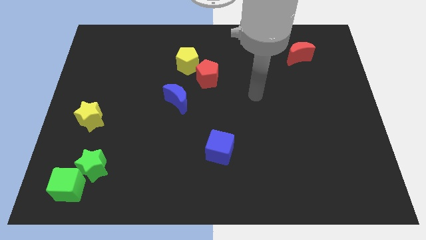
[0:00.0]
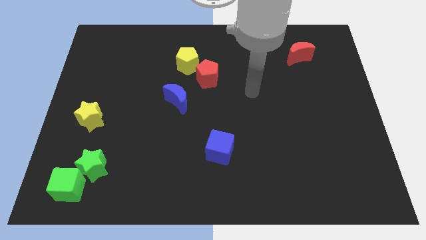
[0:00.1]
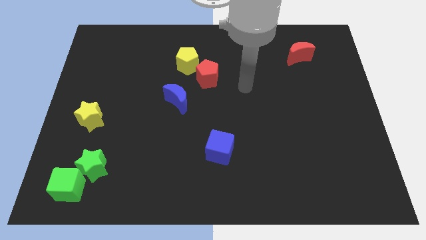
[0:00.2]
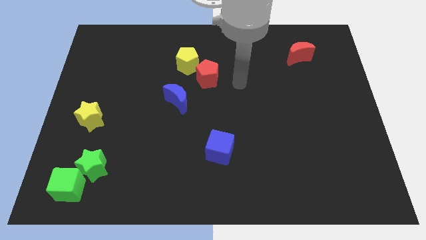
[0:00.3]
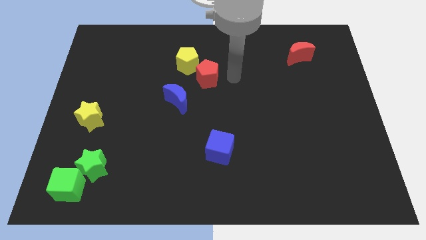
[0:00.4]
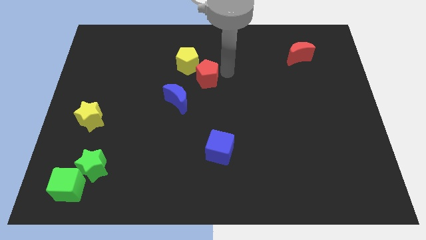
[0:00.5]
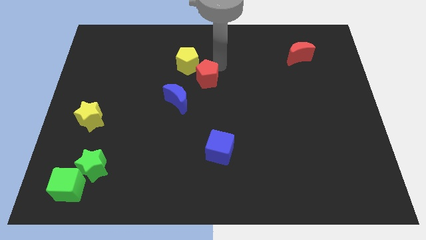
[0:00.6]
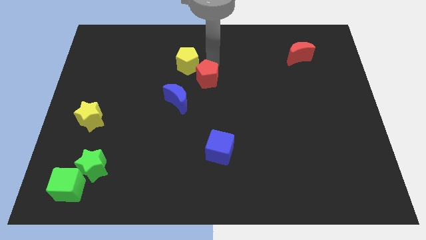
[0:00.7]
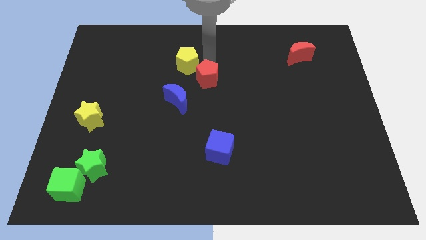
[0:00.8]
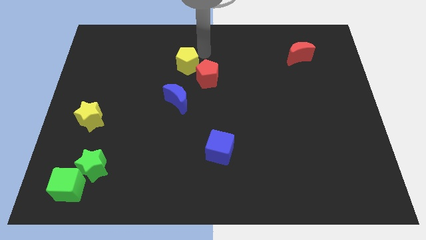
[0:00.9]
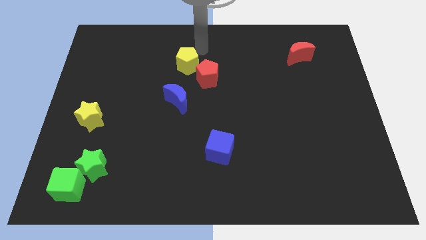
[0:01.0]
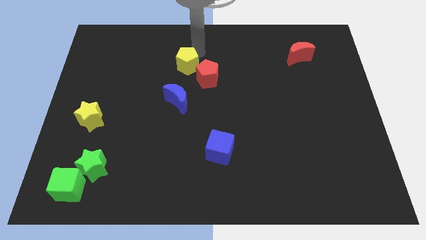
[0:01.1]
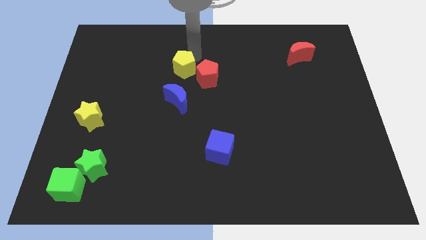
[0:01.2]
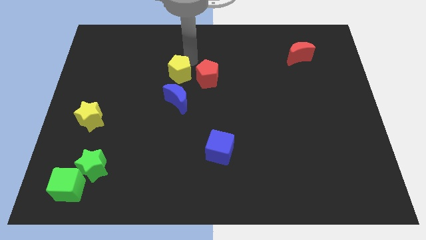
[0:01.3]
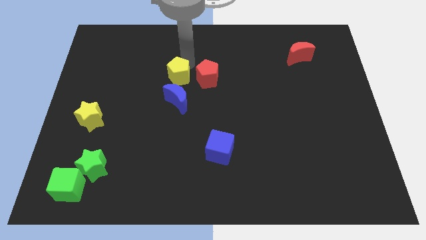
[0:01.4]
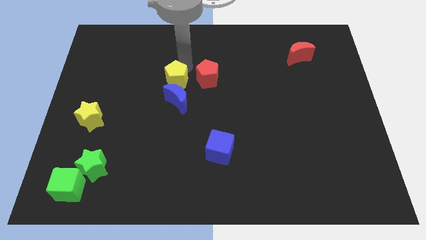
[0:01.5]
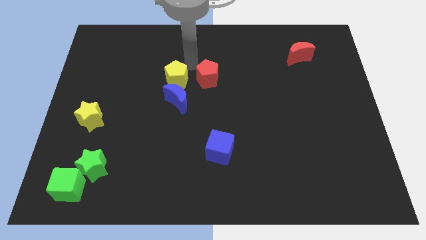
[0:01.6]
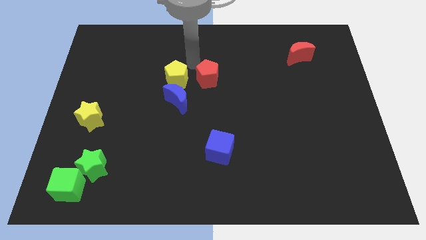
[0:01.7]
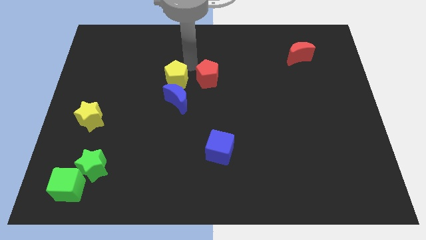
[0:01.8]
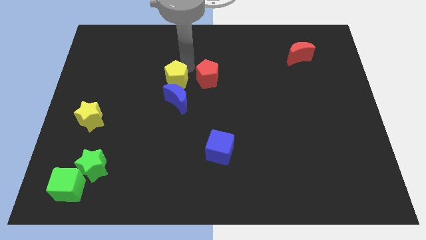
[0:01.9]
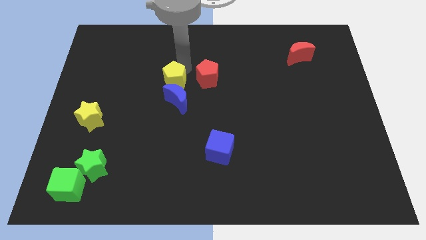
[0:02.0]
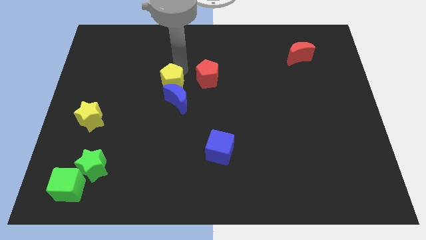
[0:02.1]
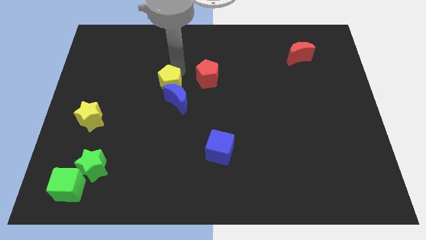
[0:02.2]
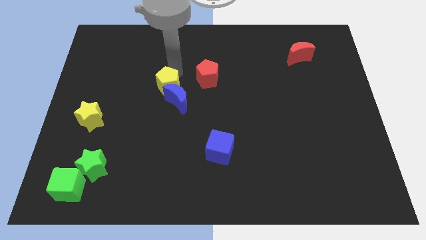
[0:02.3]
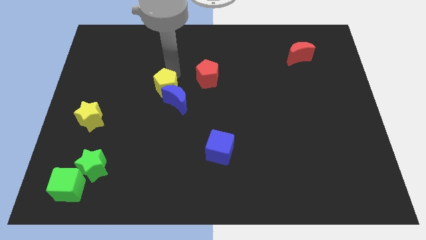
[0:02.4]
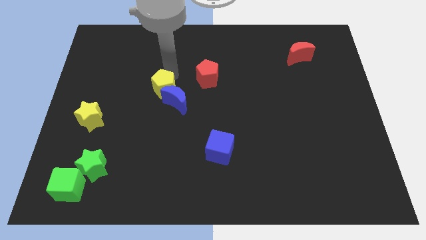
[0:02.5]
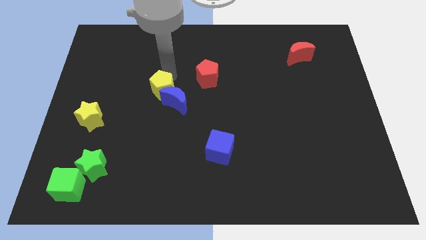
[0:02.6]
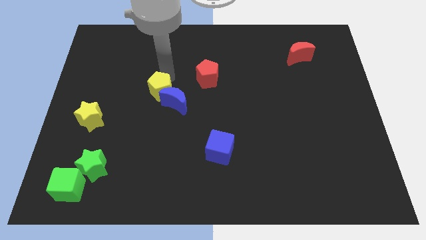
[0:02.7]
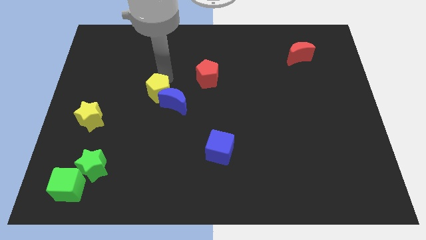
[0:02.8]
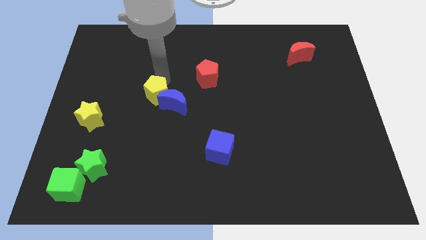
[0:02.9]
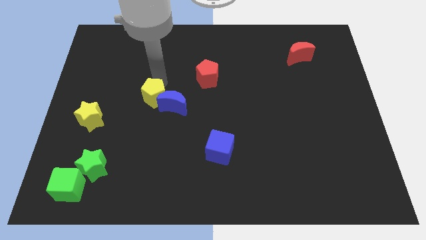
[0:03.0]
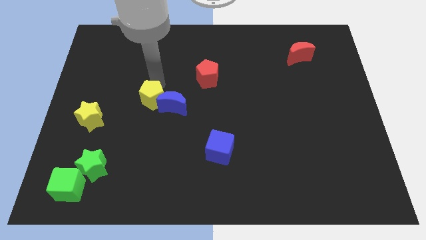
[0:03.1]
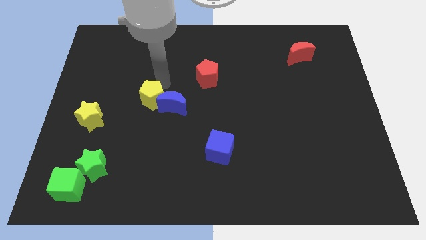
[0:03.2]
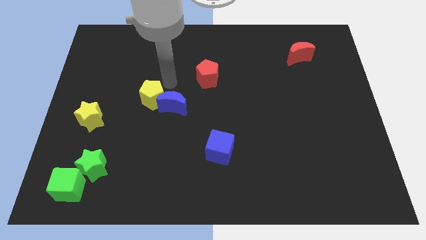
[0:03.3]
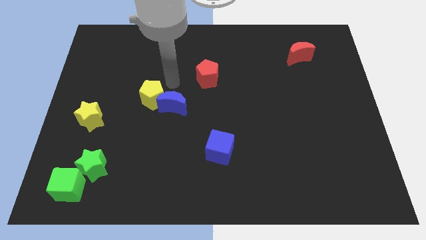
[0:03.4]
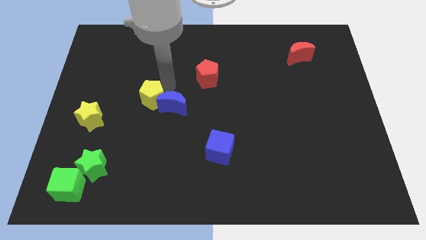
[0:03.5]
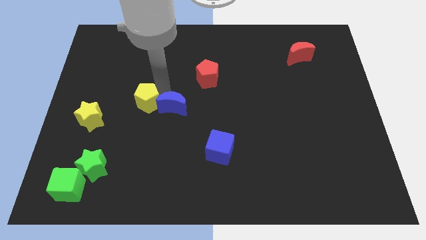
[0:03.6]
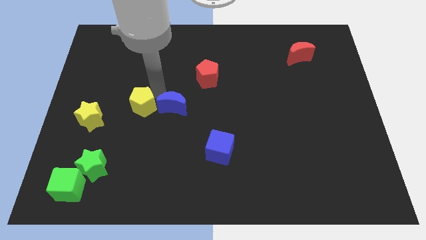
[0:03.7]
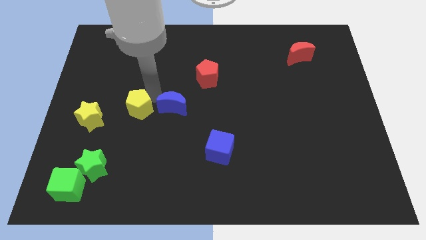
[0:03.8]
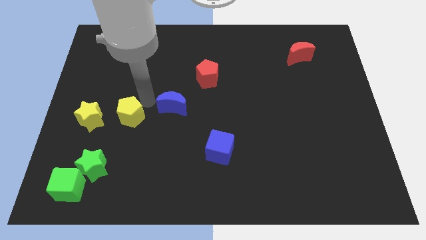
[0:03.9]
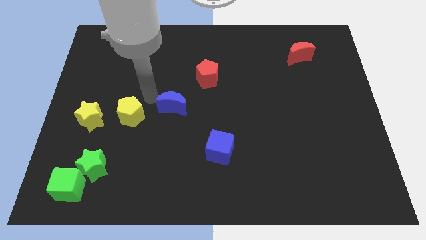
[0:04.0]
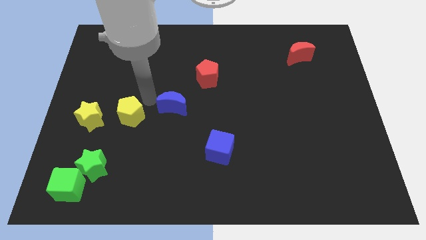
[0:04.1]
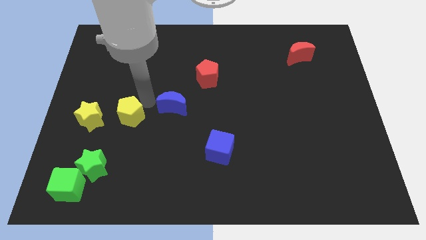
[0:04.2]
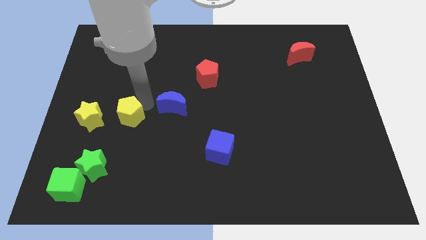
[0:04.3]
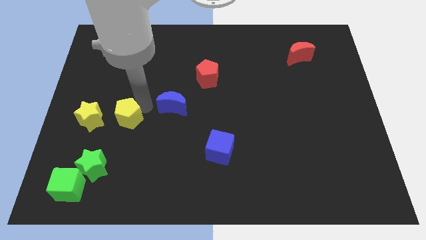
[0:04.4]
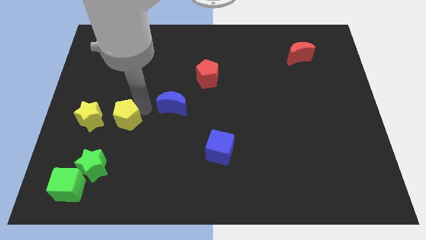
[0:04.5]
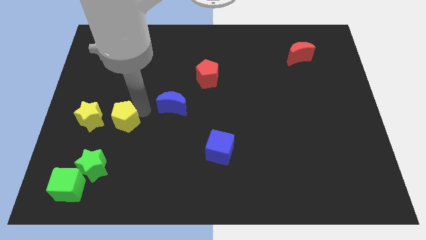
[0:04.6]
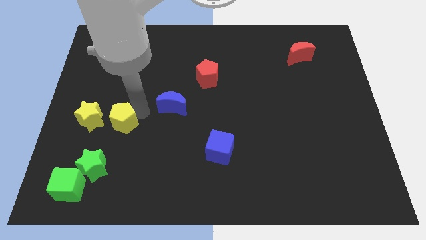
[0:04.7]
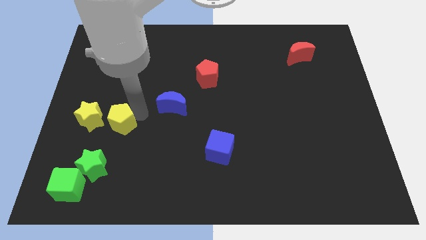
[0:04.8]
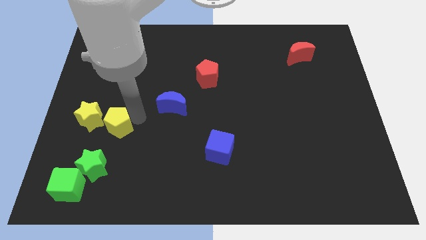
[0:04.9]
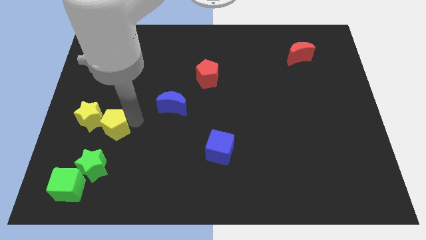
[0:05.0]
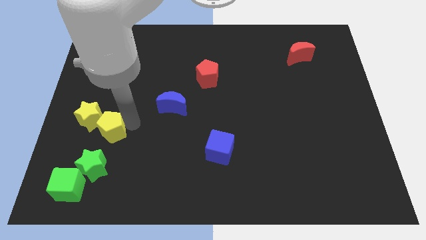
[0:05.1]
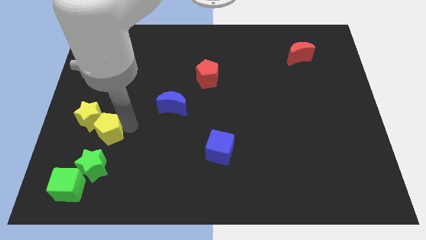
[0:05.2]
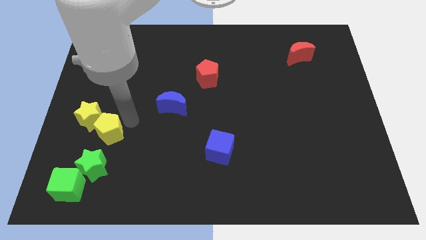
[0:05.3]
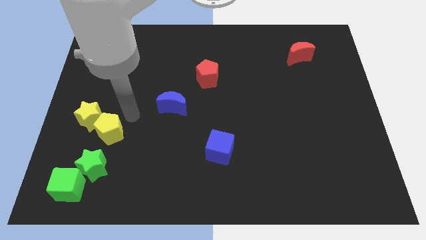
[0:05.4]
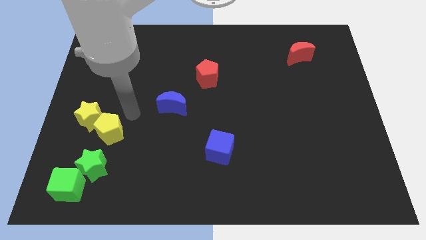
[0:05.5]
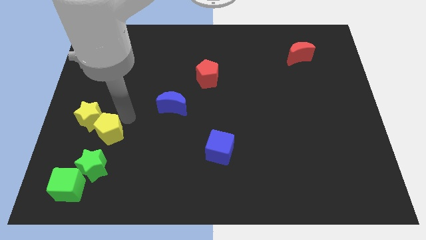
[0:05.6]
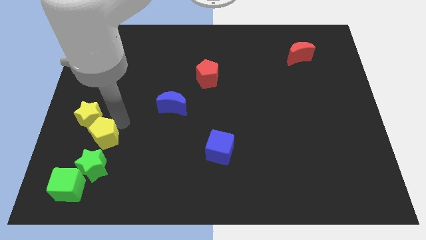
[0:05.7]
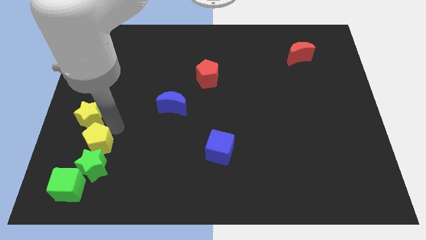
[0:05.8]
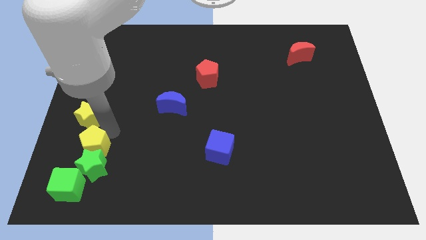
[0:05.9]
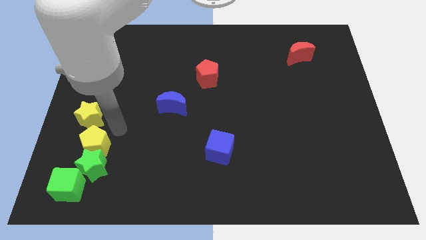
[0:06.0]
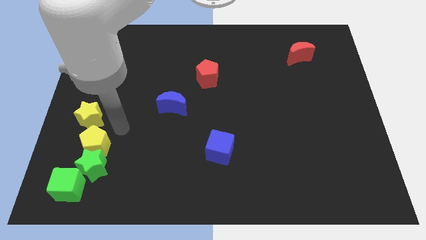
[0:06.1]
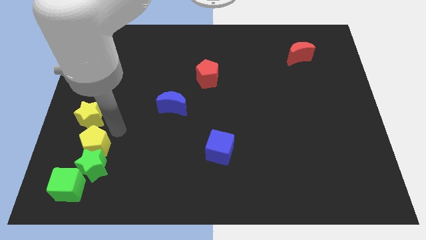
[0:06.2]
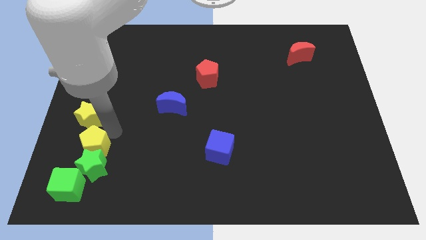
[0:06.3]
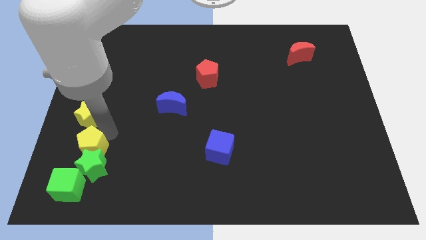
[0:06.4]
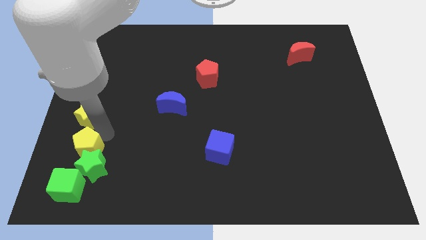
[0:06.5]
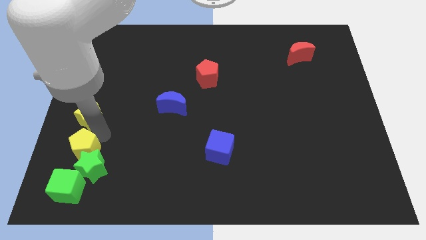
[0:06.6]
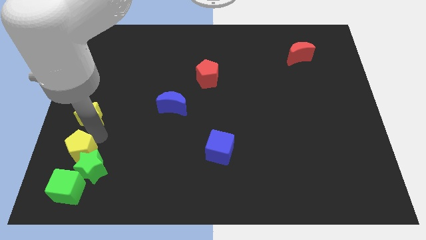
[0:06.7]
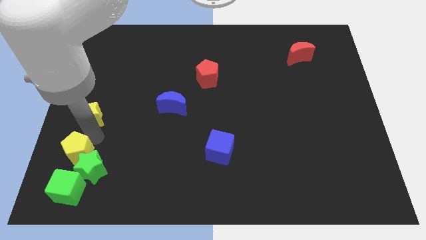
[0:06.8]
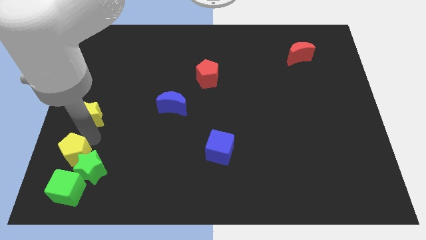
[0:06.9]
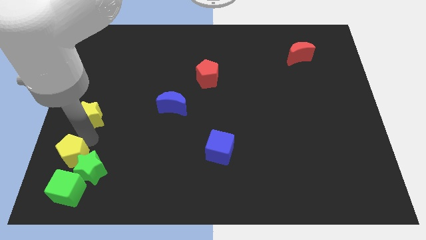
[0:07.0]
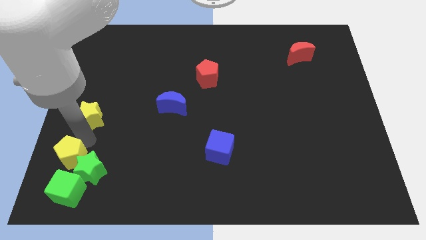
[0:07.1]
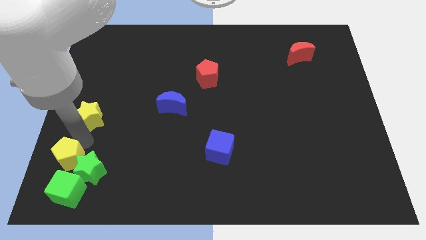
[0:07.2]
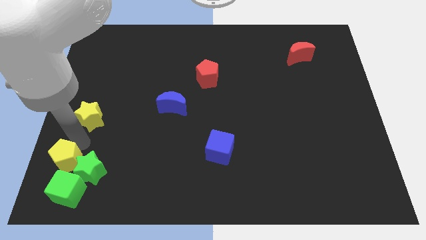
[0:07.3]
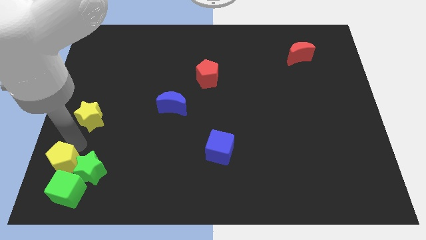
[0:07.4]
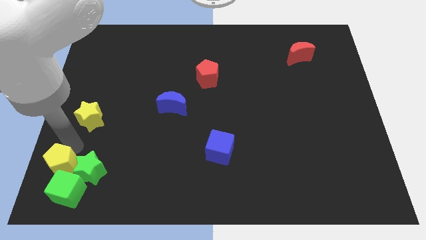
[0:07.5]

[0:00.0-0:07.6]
slide the yellow pentagon to the bottom left corner
